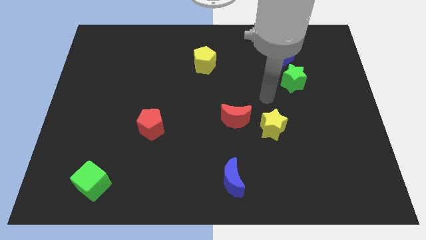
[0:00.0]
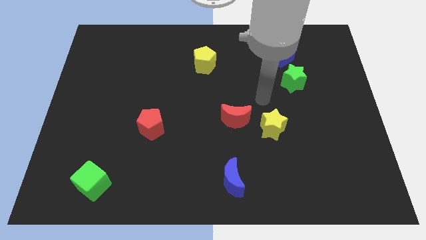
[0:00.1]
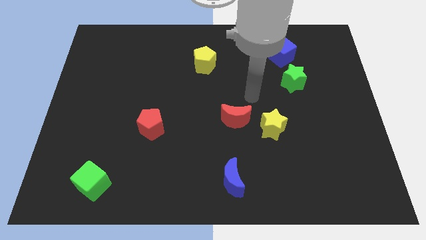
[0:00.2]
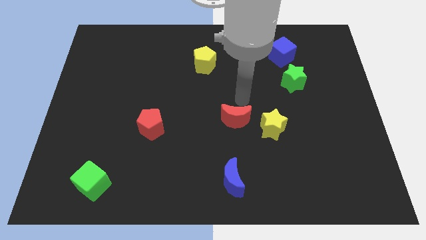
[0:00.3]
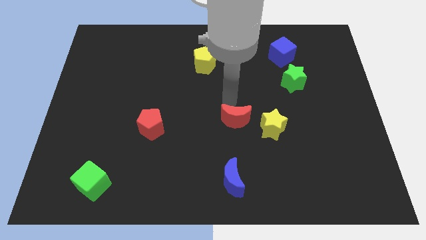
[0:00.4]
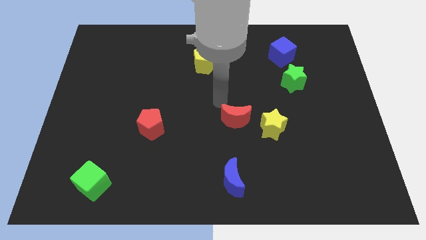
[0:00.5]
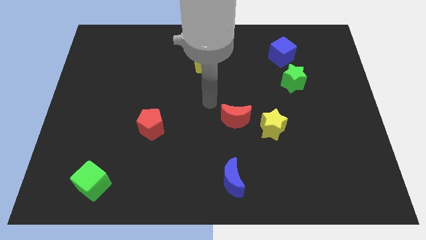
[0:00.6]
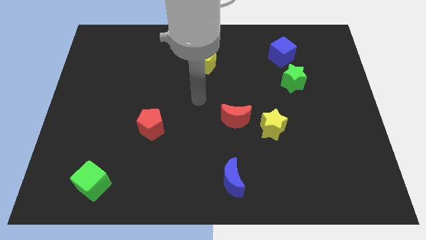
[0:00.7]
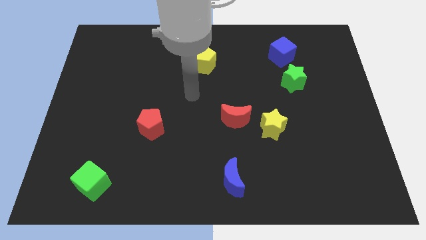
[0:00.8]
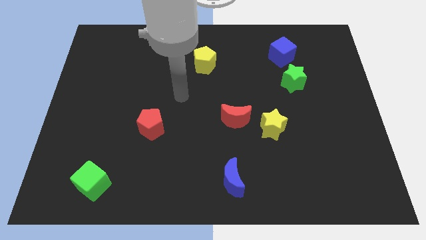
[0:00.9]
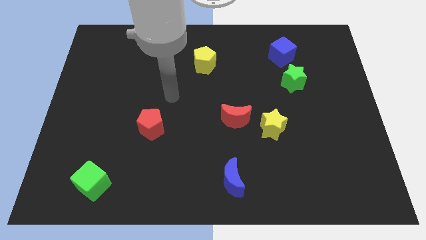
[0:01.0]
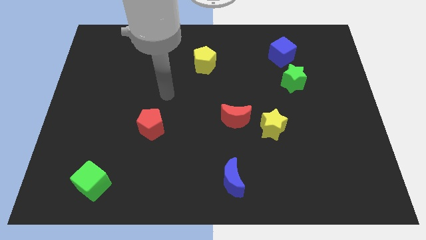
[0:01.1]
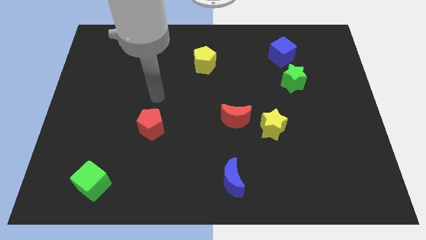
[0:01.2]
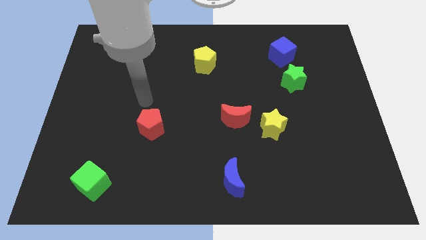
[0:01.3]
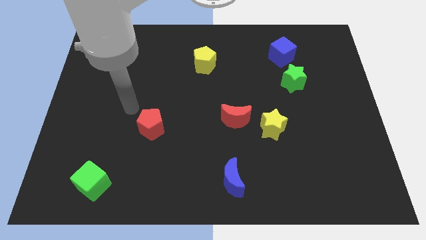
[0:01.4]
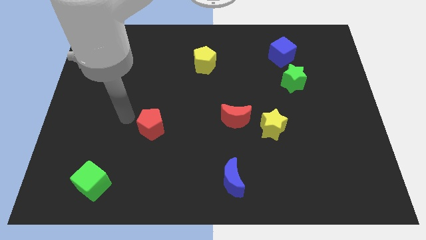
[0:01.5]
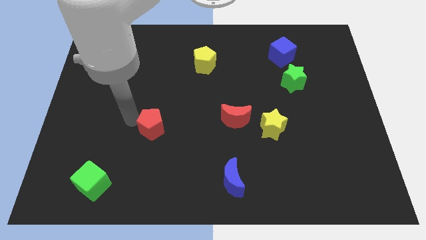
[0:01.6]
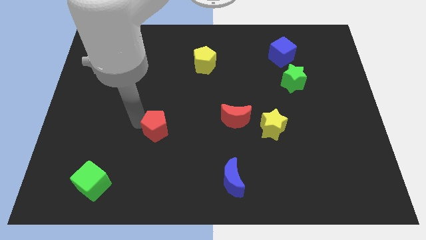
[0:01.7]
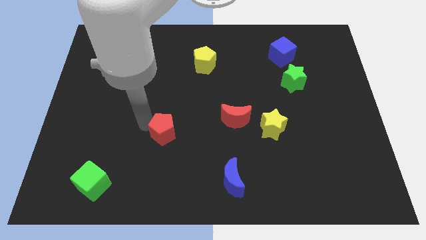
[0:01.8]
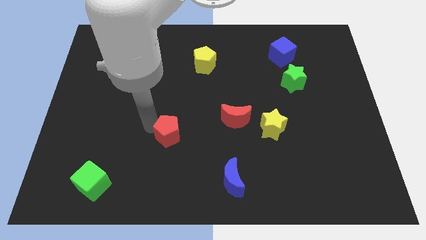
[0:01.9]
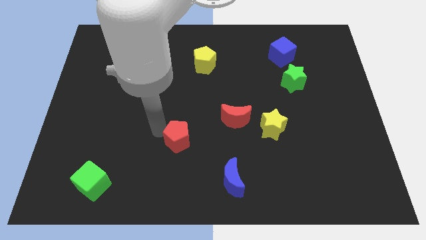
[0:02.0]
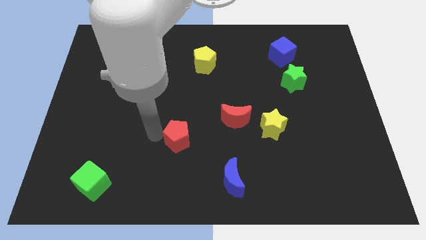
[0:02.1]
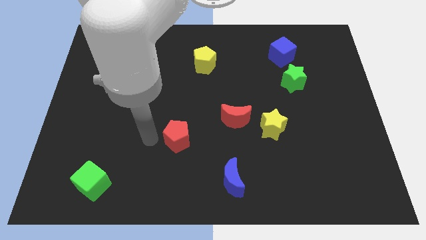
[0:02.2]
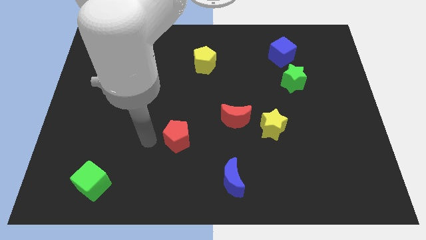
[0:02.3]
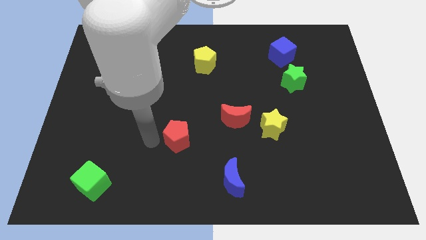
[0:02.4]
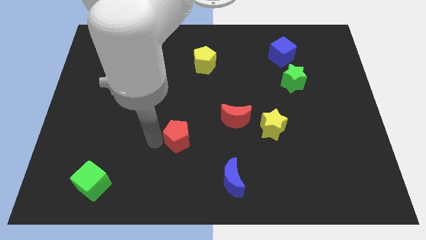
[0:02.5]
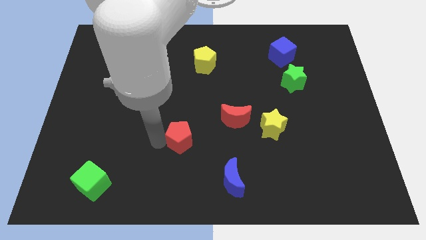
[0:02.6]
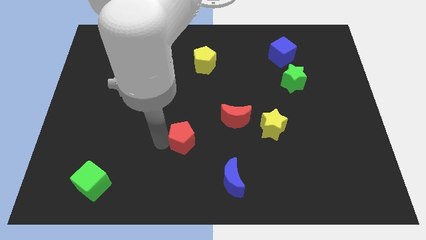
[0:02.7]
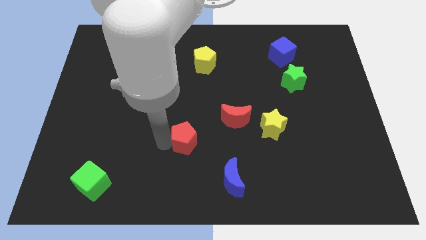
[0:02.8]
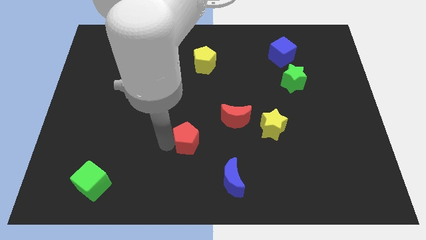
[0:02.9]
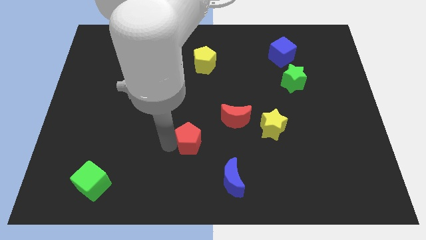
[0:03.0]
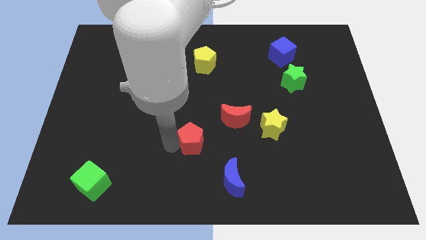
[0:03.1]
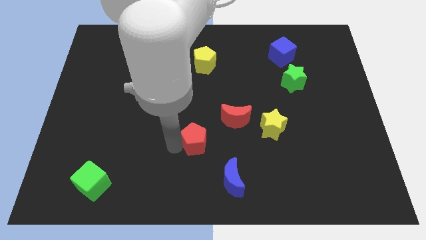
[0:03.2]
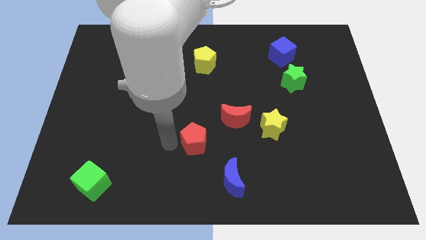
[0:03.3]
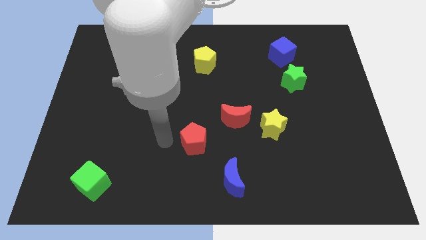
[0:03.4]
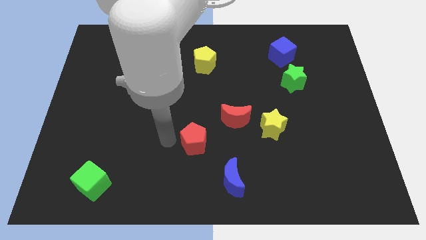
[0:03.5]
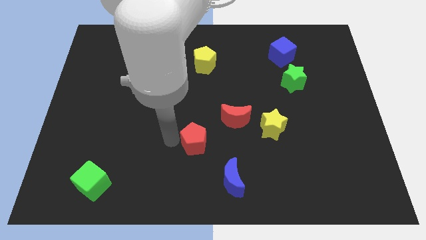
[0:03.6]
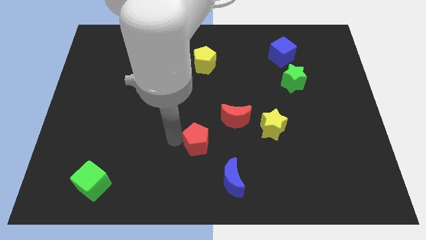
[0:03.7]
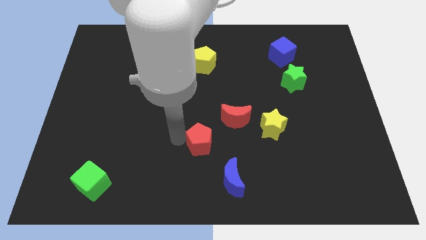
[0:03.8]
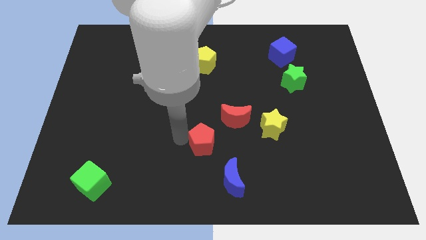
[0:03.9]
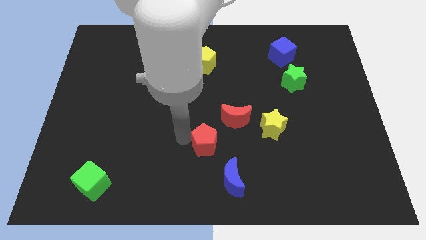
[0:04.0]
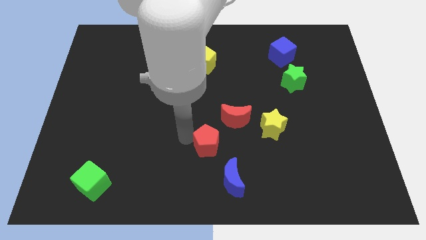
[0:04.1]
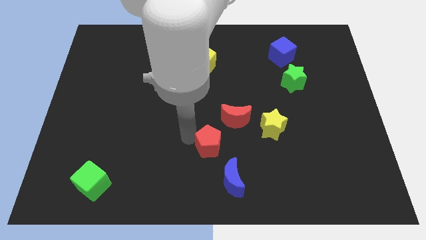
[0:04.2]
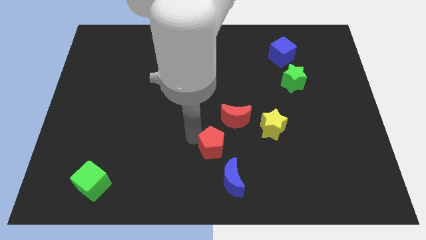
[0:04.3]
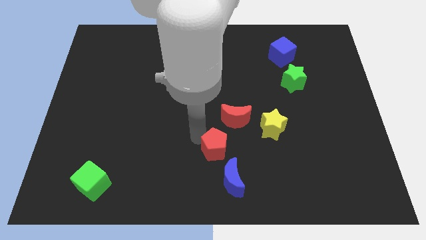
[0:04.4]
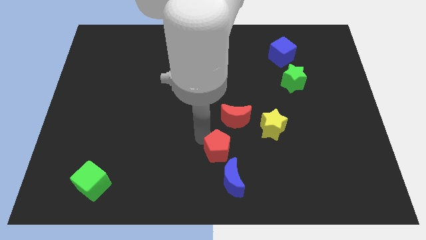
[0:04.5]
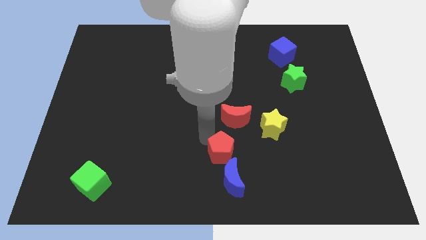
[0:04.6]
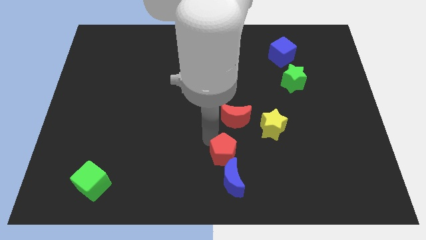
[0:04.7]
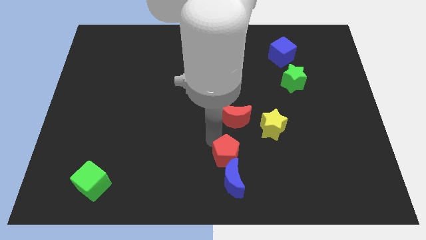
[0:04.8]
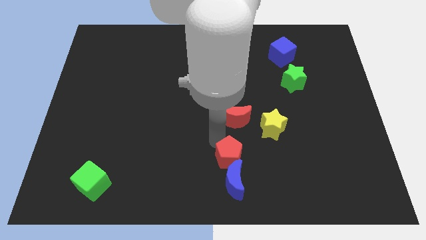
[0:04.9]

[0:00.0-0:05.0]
push the red pentagon to the top right side of the blue moon

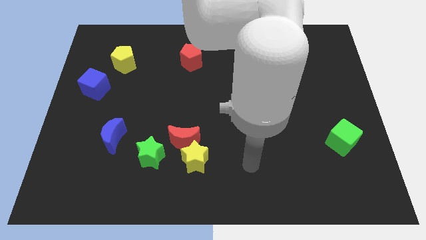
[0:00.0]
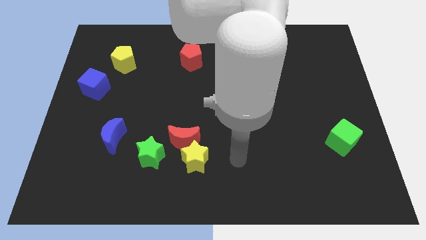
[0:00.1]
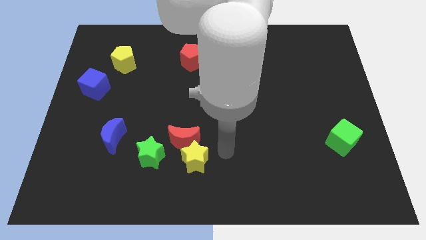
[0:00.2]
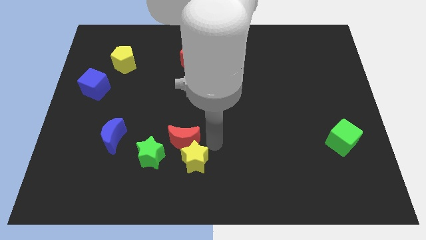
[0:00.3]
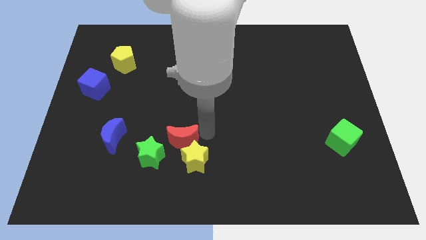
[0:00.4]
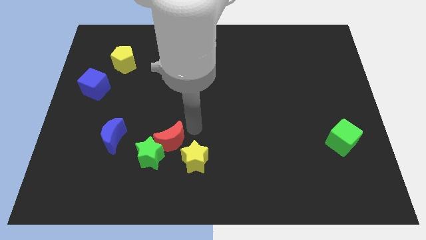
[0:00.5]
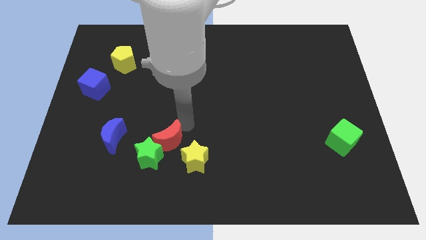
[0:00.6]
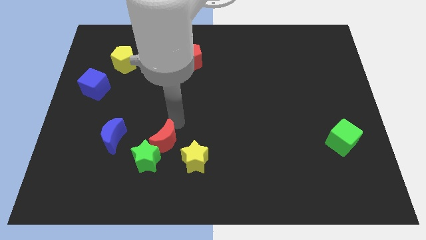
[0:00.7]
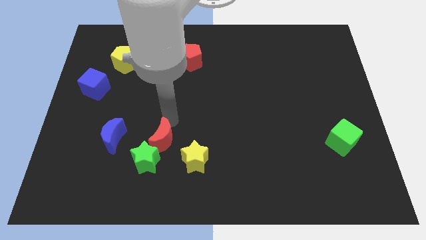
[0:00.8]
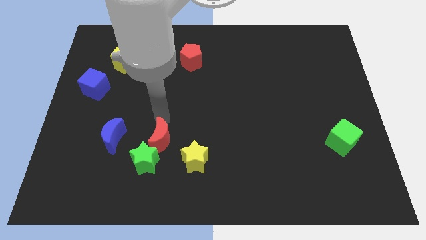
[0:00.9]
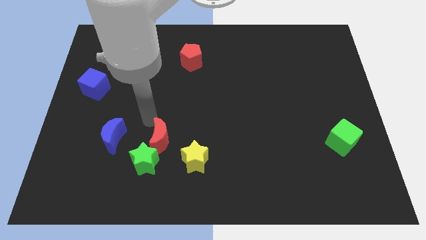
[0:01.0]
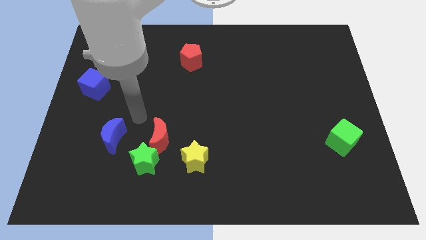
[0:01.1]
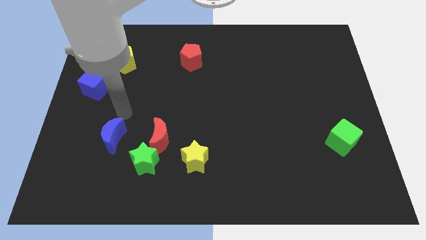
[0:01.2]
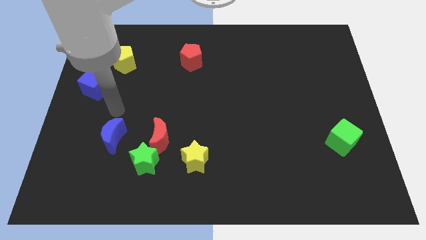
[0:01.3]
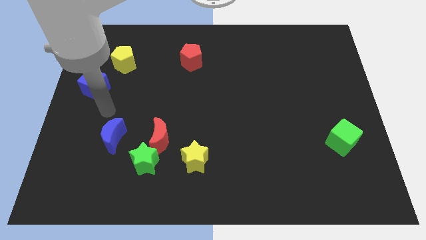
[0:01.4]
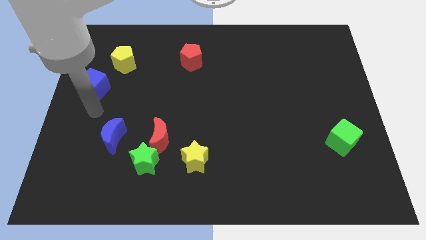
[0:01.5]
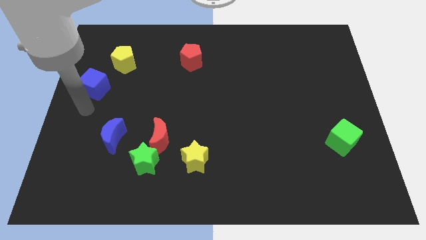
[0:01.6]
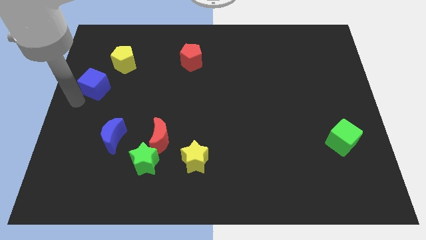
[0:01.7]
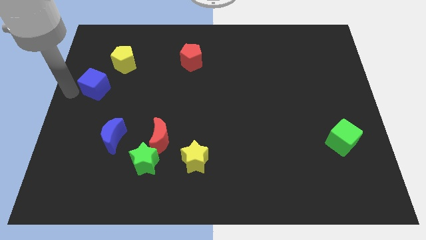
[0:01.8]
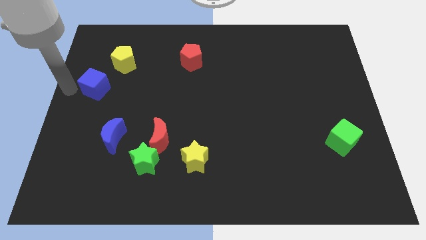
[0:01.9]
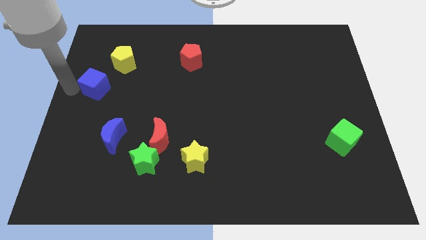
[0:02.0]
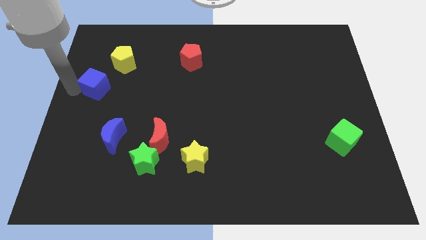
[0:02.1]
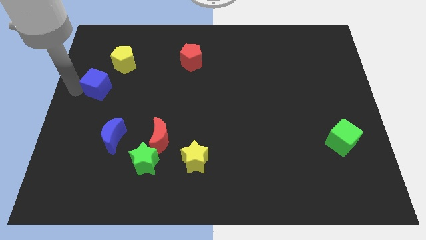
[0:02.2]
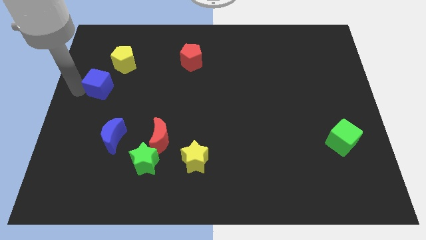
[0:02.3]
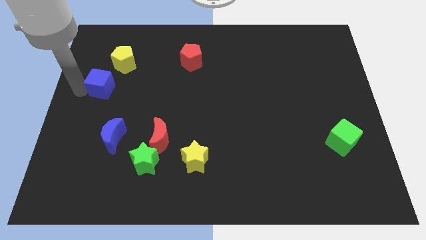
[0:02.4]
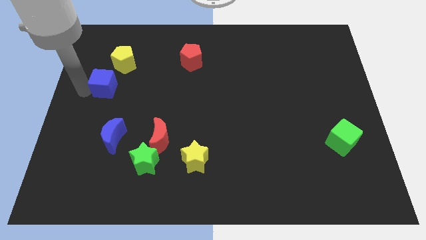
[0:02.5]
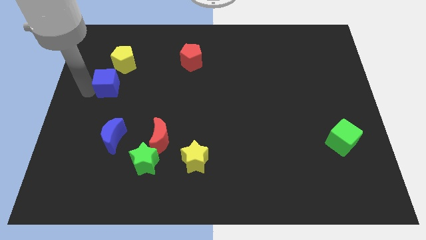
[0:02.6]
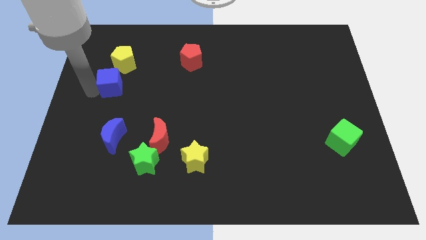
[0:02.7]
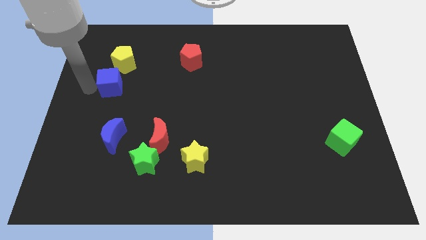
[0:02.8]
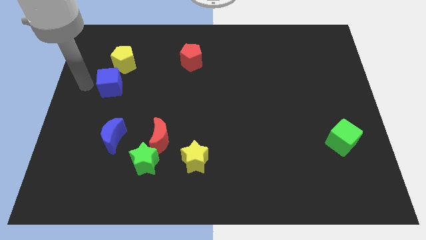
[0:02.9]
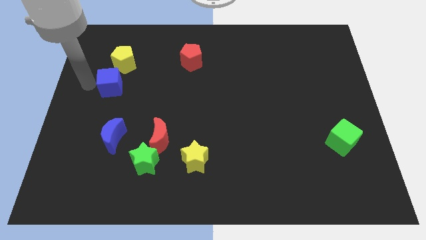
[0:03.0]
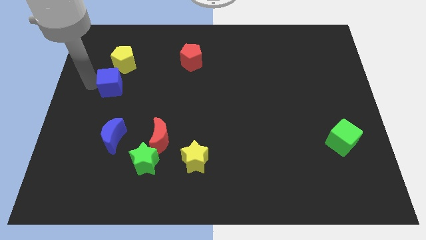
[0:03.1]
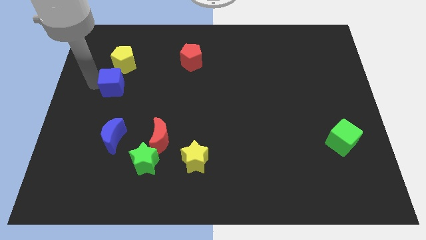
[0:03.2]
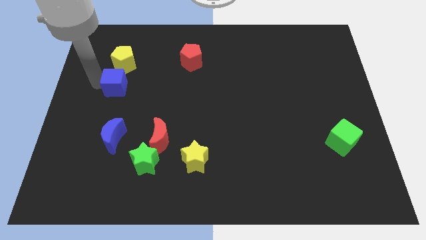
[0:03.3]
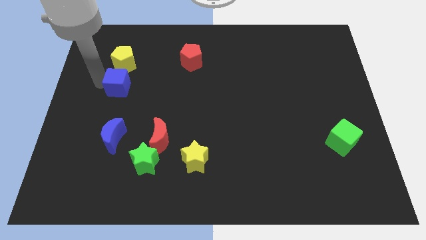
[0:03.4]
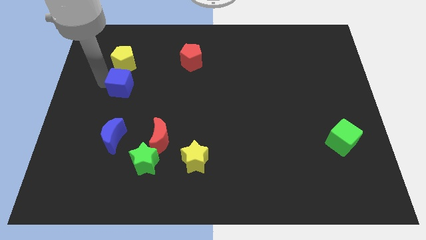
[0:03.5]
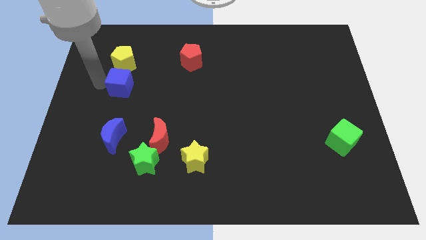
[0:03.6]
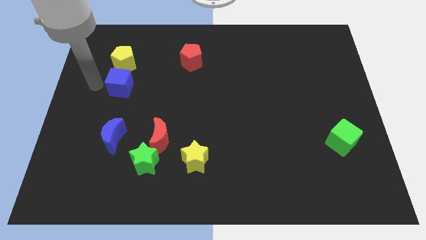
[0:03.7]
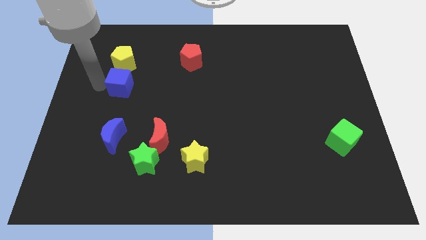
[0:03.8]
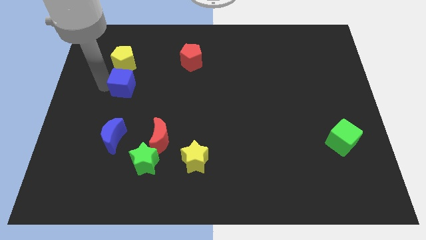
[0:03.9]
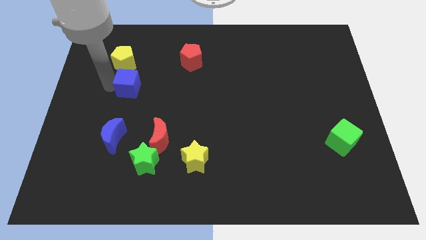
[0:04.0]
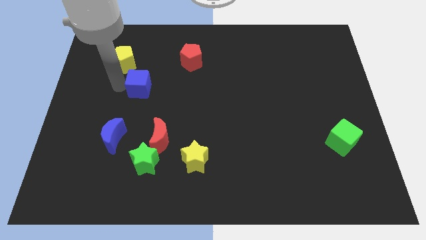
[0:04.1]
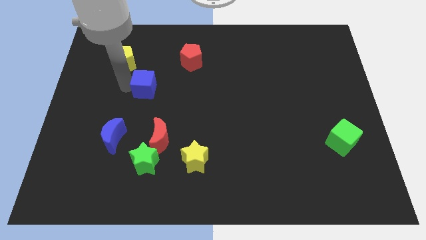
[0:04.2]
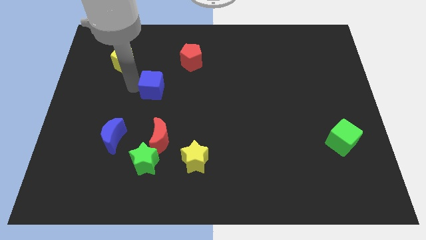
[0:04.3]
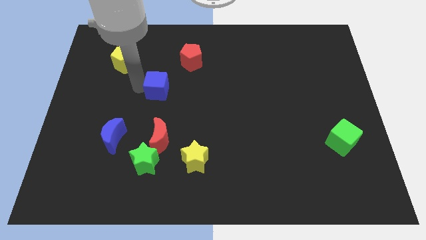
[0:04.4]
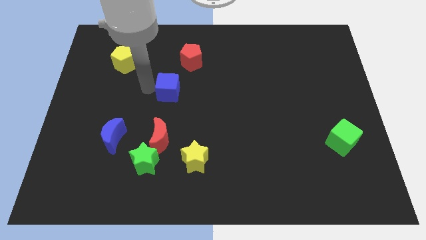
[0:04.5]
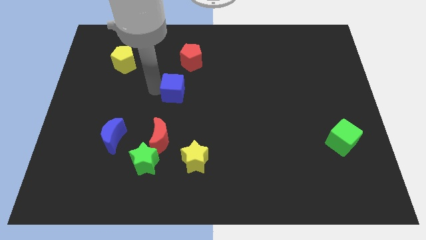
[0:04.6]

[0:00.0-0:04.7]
move the blue cube to the bottom side of the red pentagon
